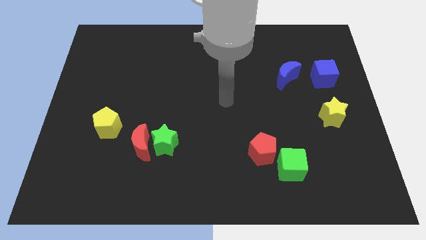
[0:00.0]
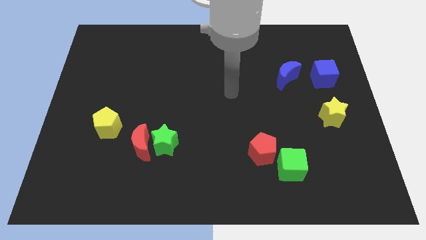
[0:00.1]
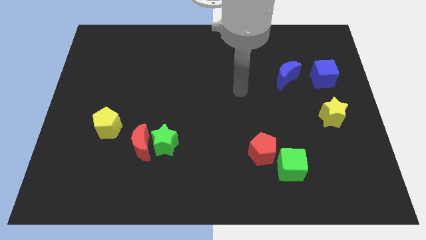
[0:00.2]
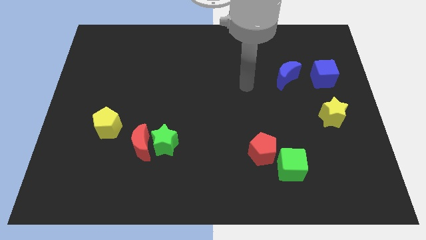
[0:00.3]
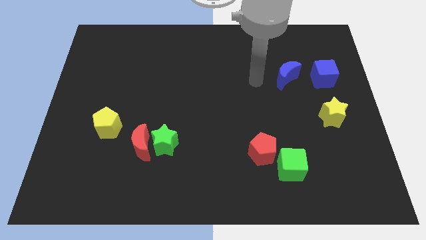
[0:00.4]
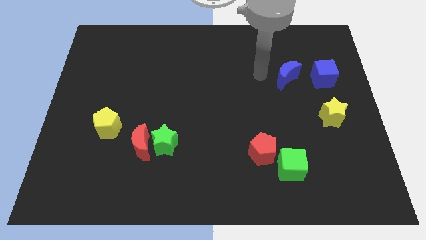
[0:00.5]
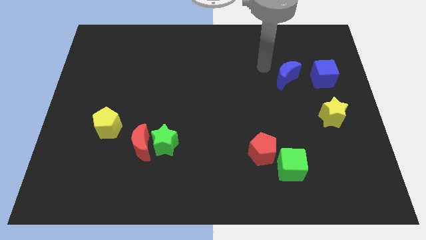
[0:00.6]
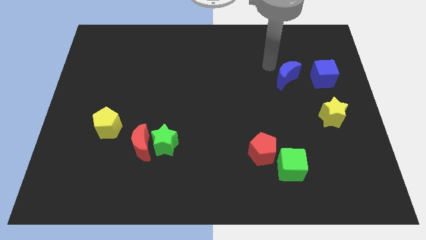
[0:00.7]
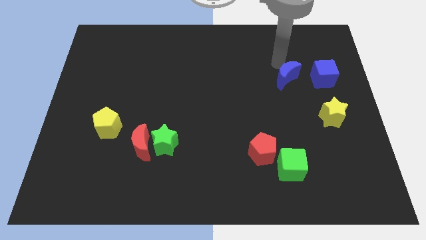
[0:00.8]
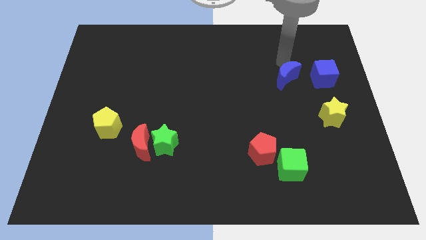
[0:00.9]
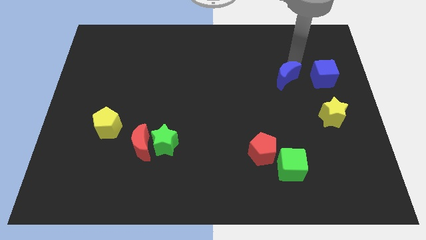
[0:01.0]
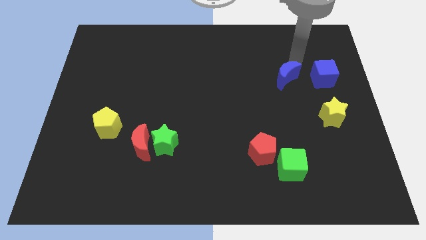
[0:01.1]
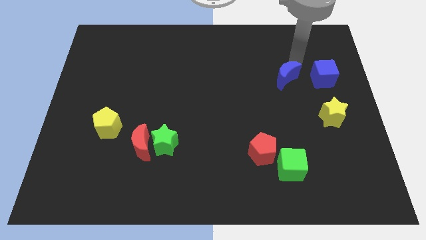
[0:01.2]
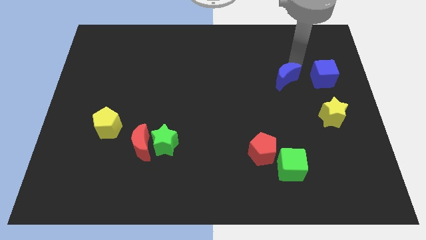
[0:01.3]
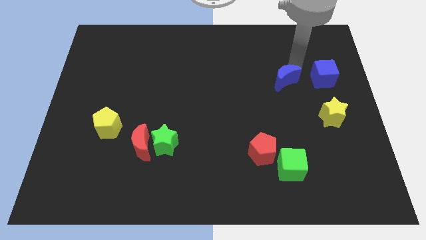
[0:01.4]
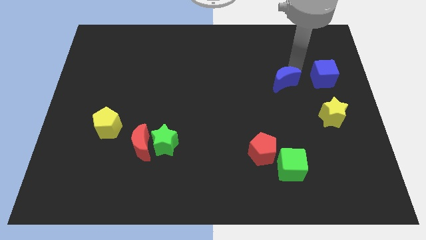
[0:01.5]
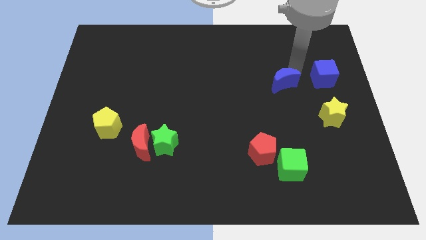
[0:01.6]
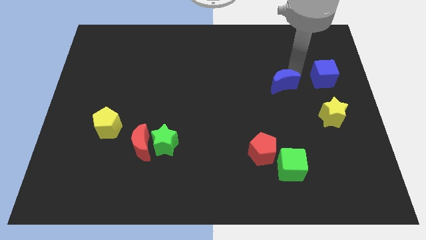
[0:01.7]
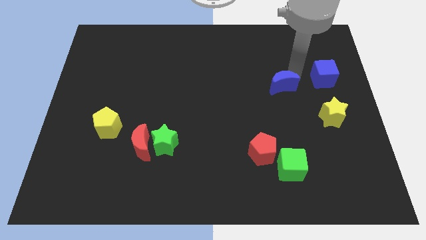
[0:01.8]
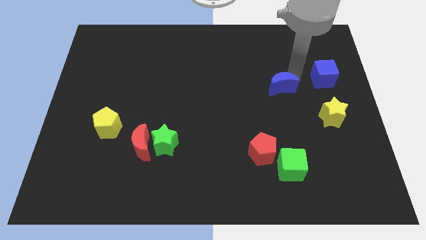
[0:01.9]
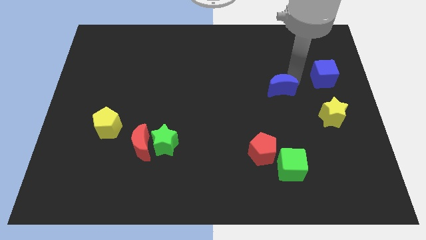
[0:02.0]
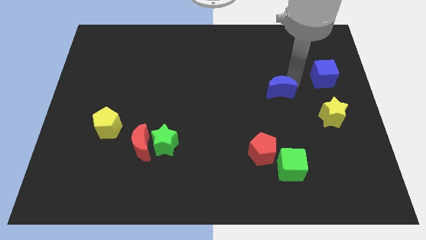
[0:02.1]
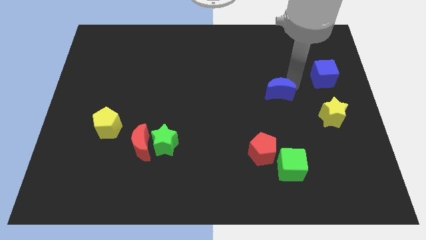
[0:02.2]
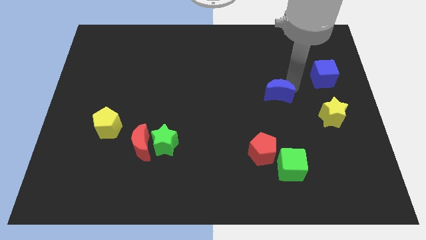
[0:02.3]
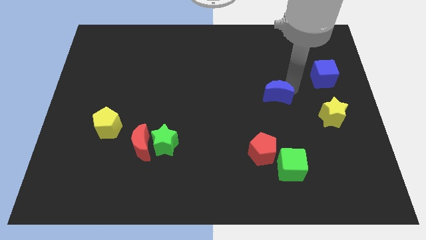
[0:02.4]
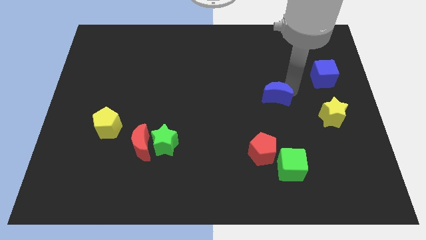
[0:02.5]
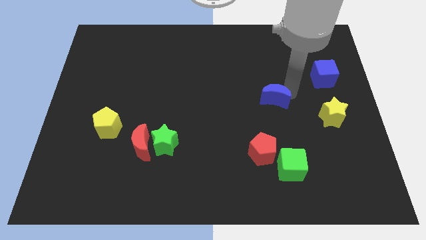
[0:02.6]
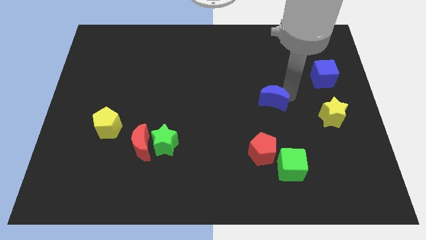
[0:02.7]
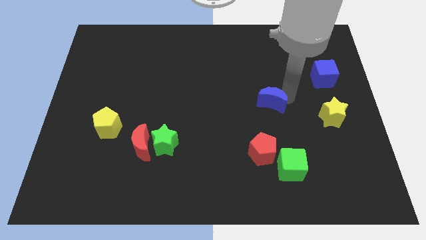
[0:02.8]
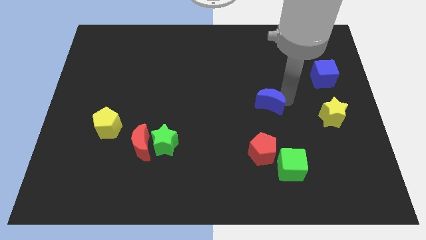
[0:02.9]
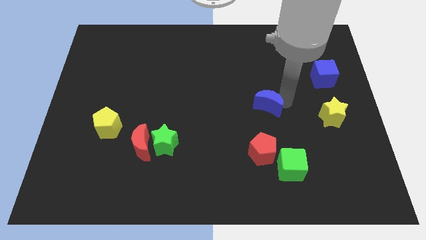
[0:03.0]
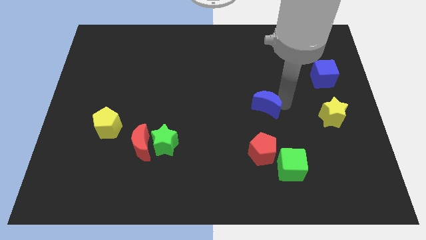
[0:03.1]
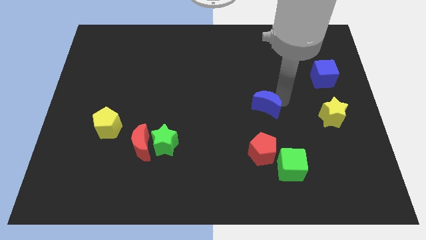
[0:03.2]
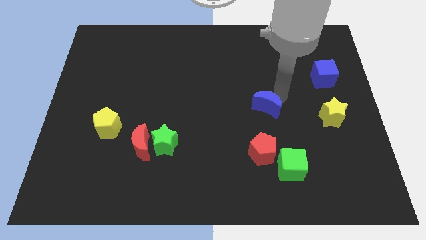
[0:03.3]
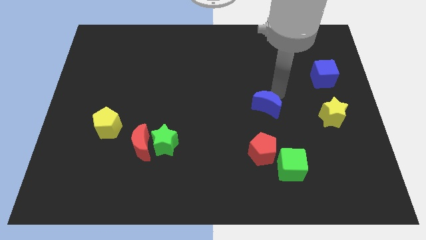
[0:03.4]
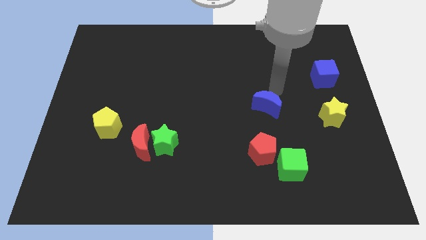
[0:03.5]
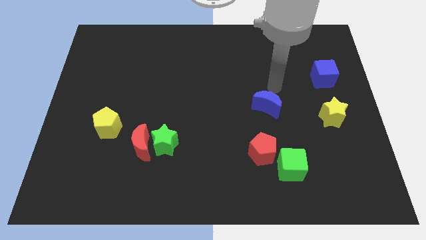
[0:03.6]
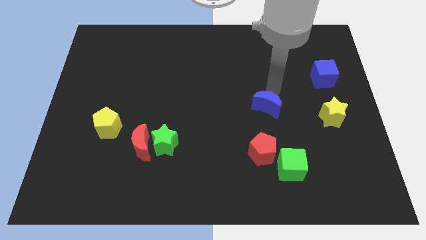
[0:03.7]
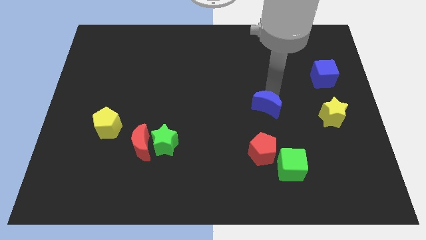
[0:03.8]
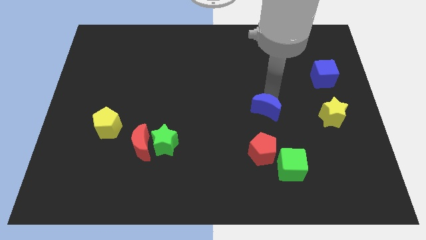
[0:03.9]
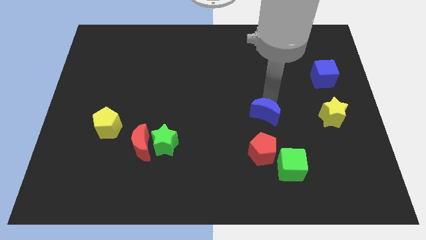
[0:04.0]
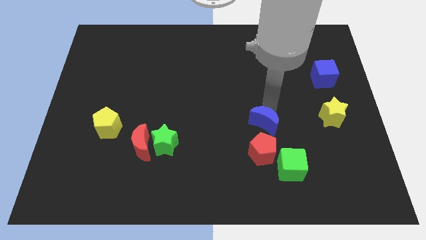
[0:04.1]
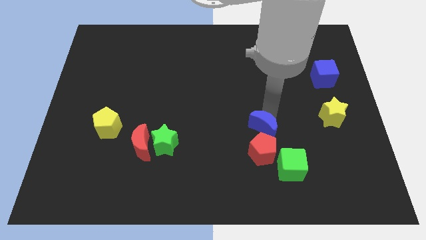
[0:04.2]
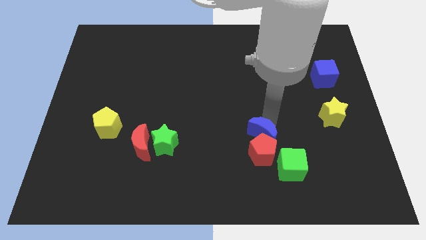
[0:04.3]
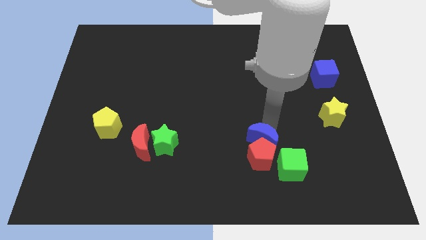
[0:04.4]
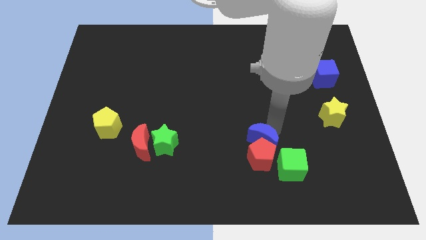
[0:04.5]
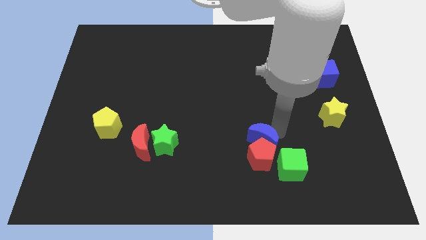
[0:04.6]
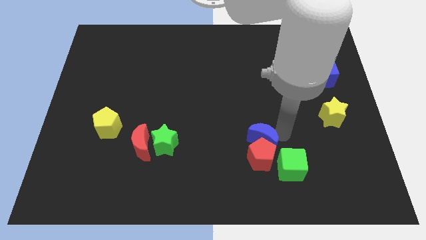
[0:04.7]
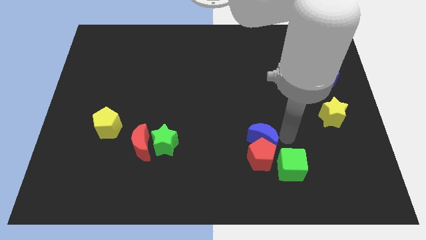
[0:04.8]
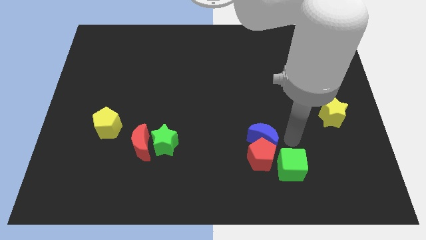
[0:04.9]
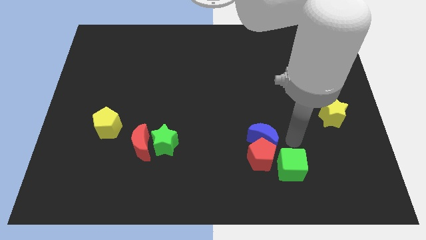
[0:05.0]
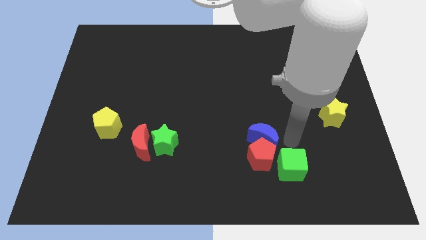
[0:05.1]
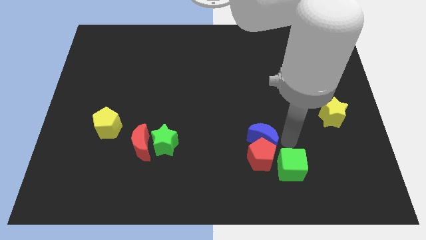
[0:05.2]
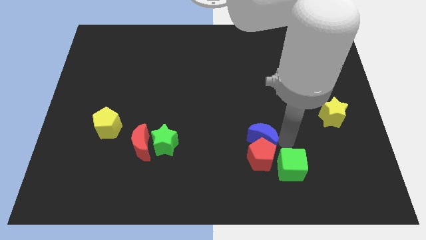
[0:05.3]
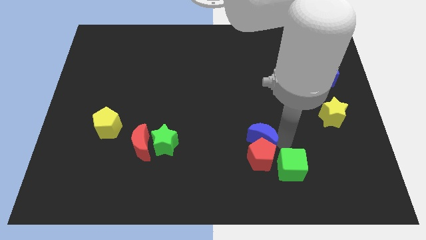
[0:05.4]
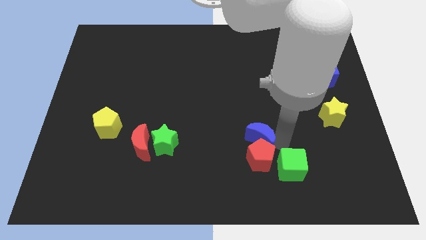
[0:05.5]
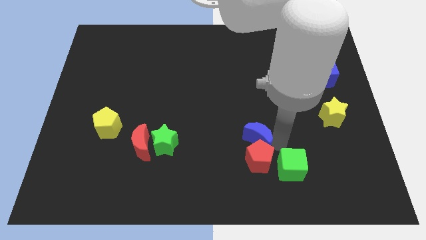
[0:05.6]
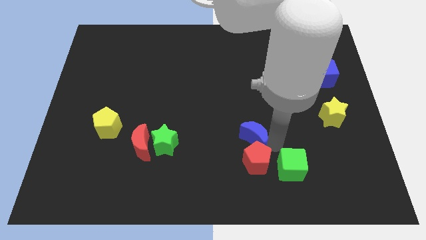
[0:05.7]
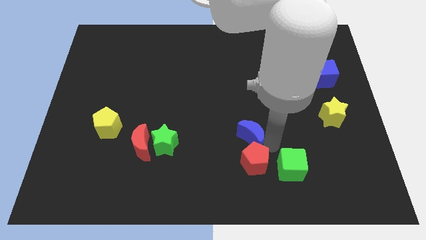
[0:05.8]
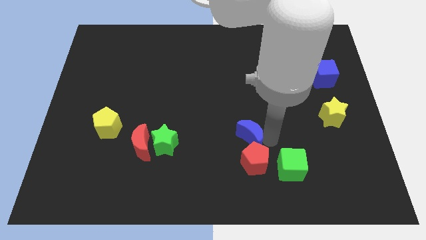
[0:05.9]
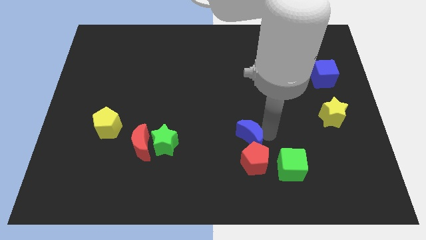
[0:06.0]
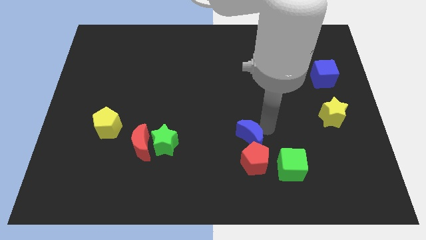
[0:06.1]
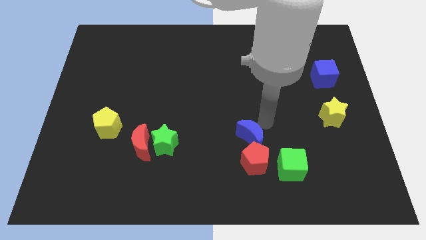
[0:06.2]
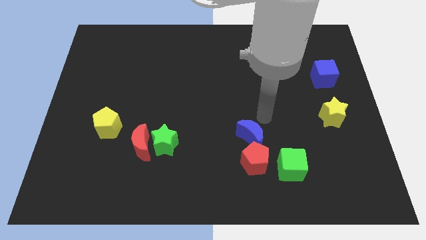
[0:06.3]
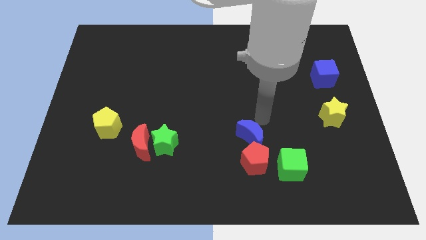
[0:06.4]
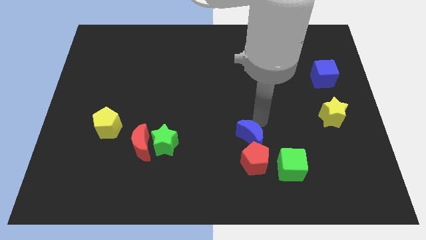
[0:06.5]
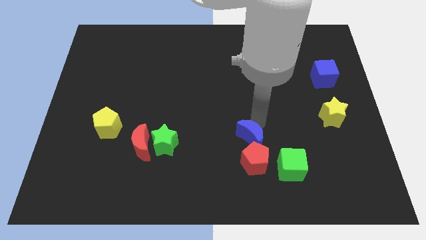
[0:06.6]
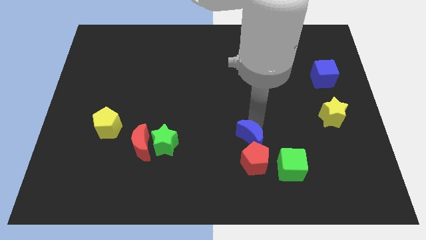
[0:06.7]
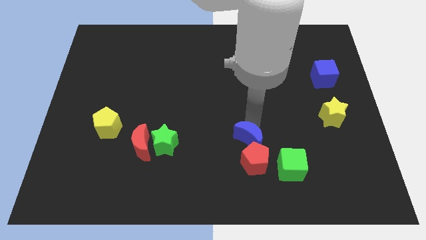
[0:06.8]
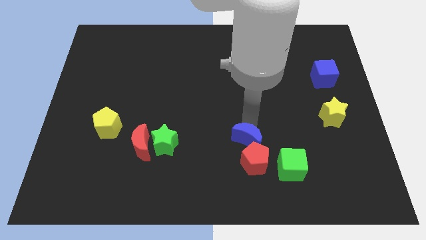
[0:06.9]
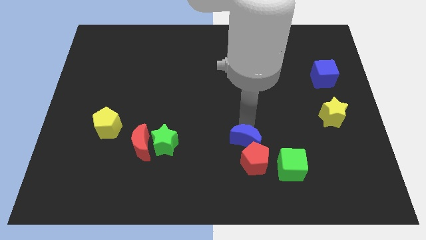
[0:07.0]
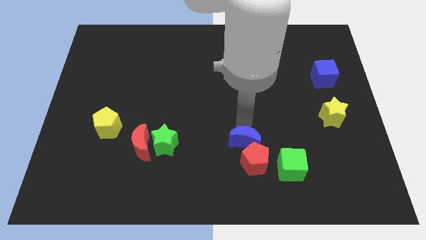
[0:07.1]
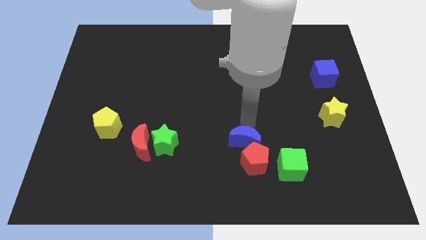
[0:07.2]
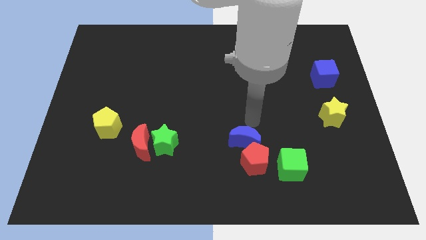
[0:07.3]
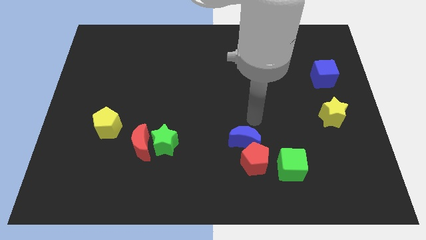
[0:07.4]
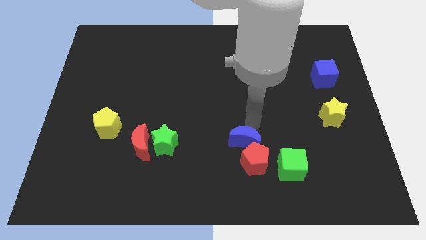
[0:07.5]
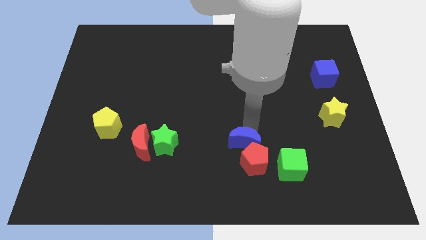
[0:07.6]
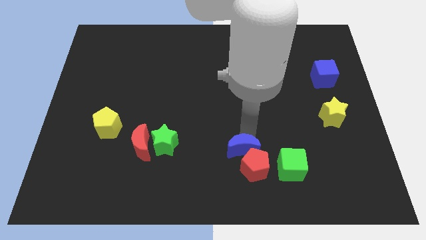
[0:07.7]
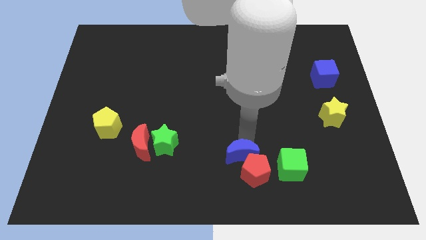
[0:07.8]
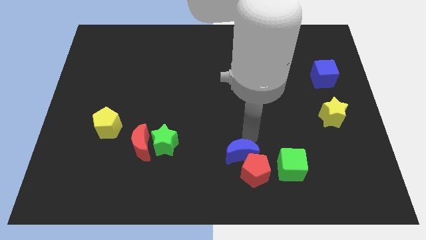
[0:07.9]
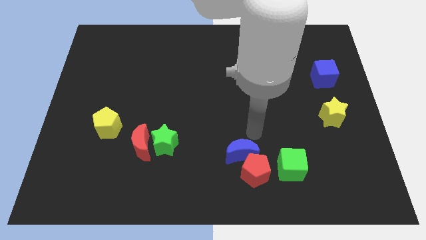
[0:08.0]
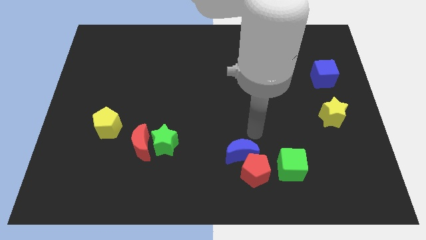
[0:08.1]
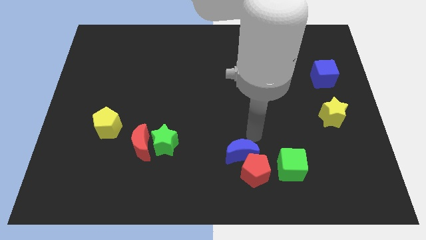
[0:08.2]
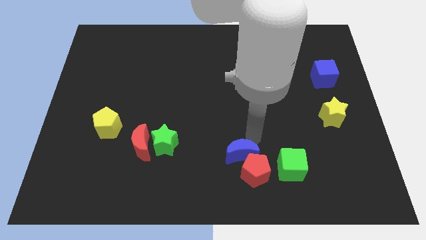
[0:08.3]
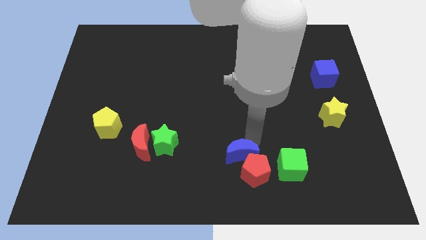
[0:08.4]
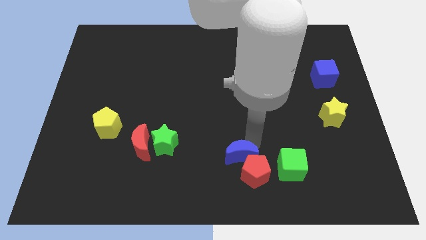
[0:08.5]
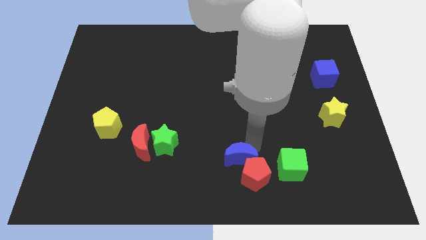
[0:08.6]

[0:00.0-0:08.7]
slide the blue moon to the bottom
